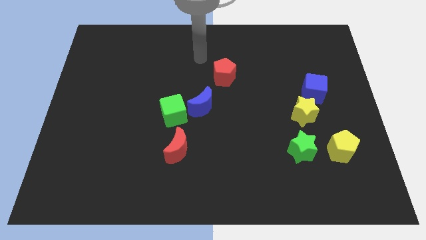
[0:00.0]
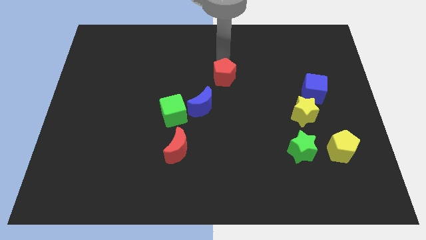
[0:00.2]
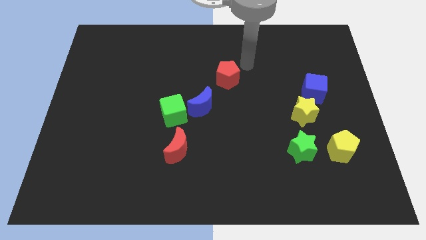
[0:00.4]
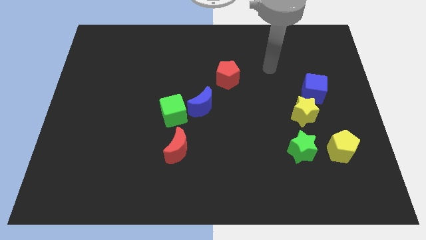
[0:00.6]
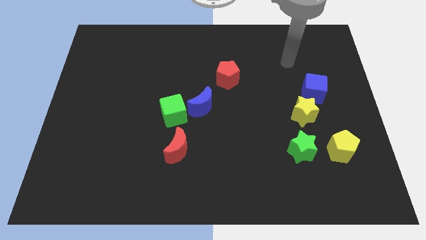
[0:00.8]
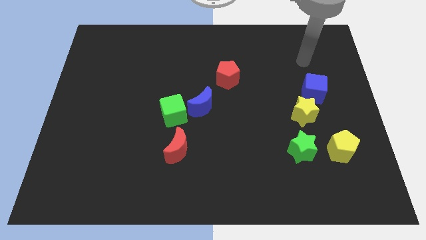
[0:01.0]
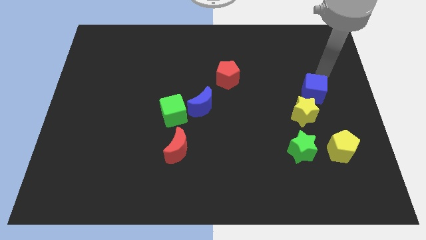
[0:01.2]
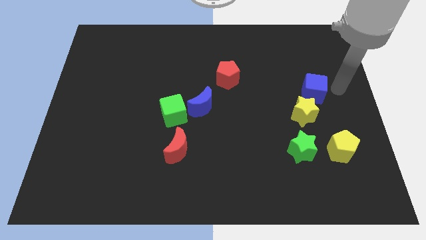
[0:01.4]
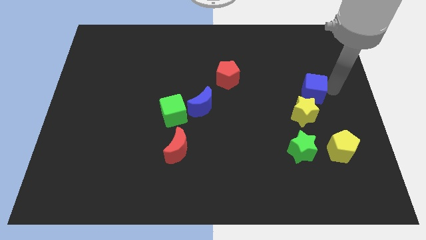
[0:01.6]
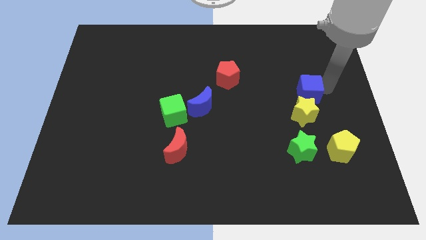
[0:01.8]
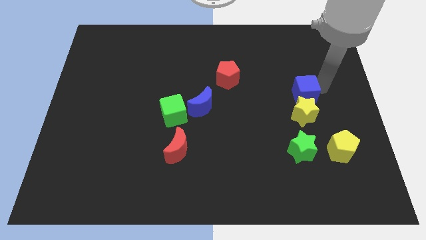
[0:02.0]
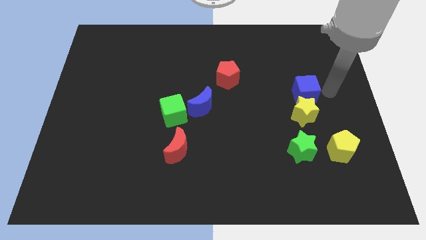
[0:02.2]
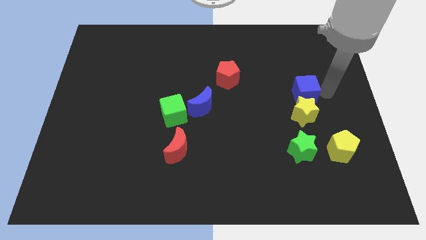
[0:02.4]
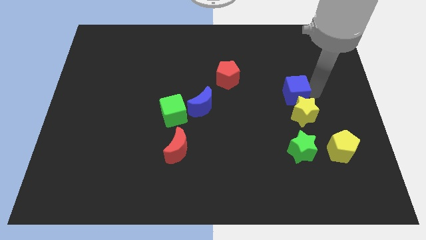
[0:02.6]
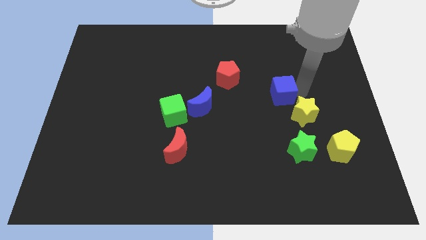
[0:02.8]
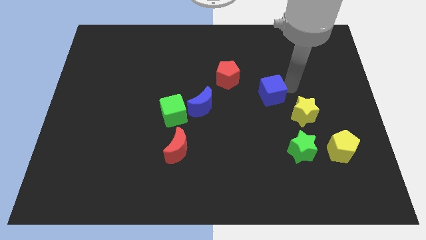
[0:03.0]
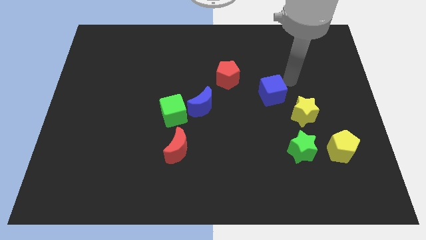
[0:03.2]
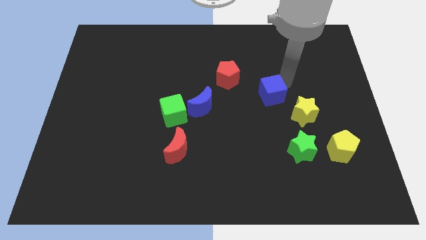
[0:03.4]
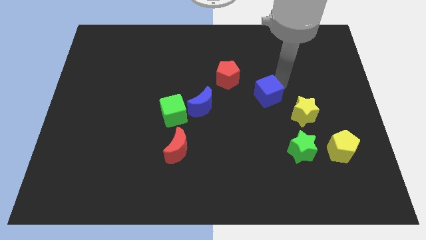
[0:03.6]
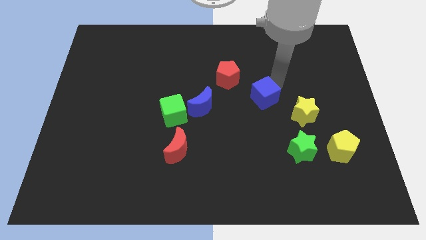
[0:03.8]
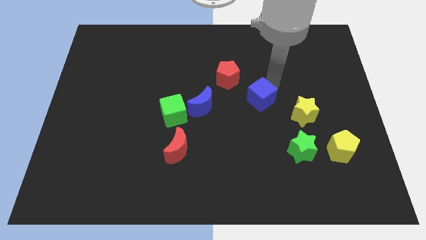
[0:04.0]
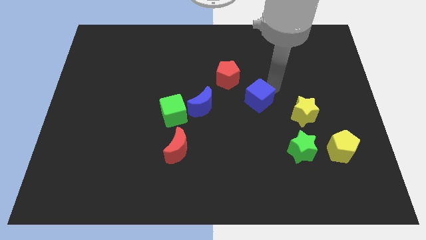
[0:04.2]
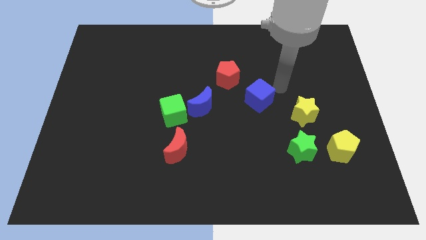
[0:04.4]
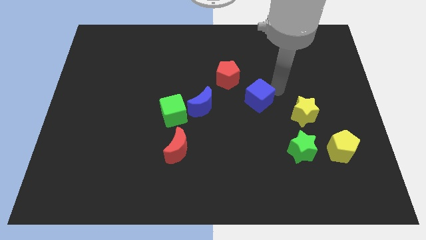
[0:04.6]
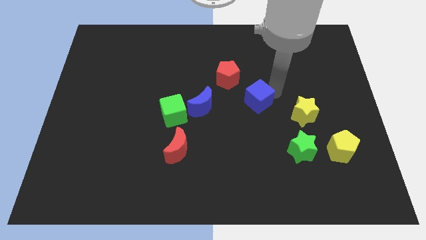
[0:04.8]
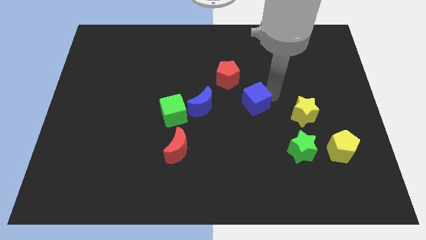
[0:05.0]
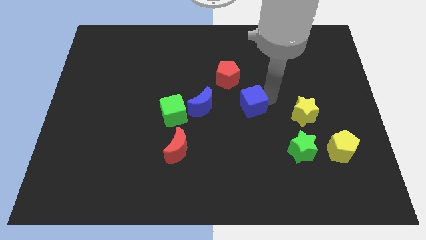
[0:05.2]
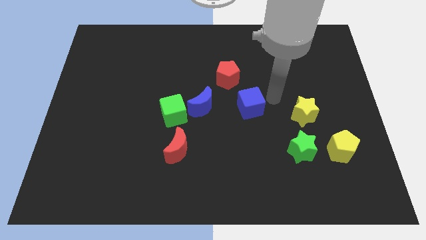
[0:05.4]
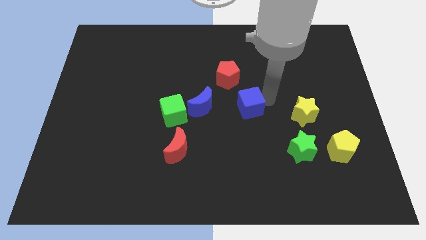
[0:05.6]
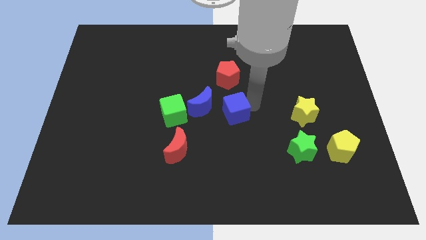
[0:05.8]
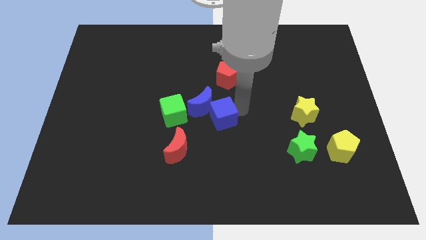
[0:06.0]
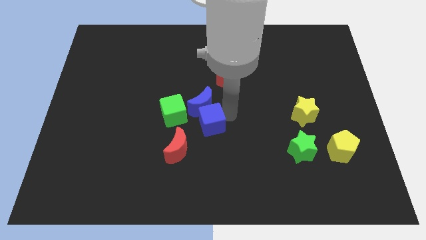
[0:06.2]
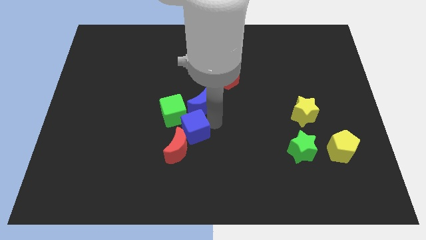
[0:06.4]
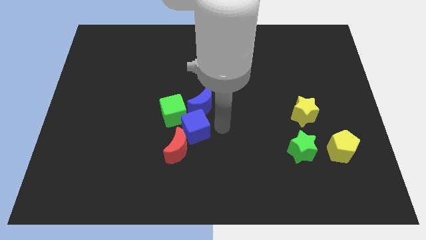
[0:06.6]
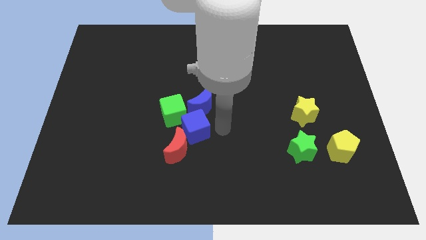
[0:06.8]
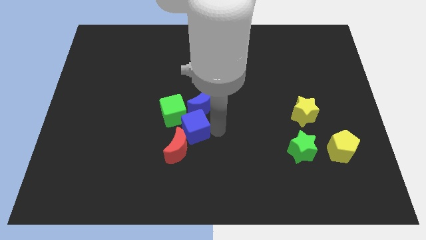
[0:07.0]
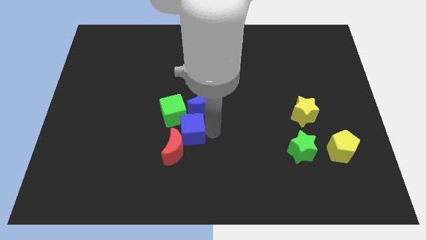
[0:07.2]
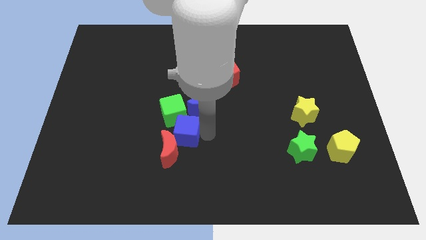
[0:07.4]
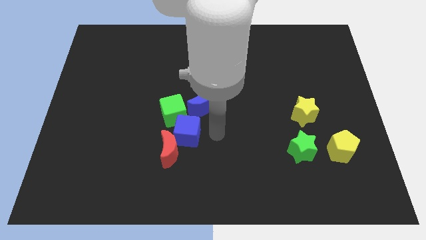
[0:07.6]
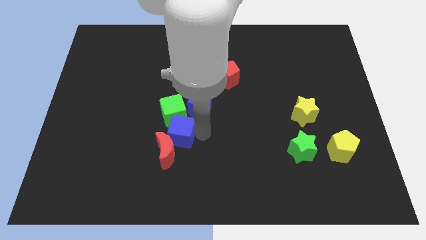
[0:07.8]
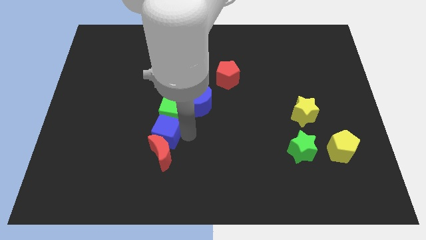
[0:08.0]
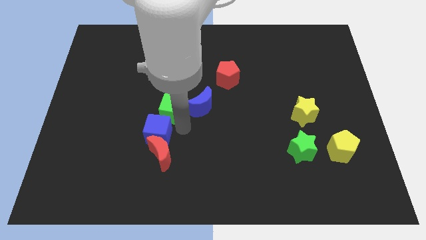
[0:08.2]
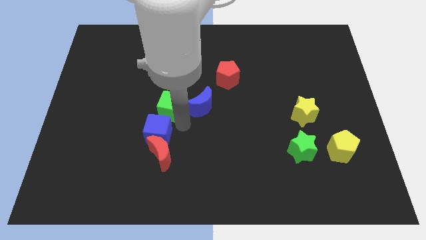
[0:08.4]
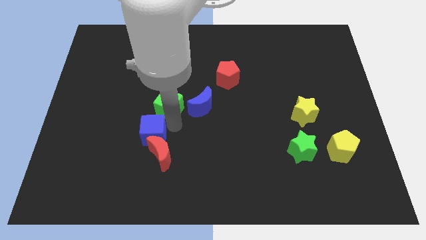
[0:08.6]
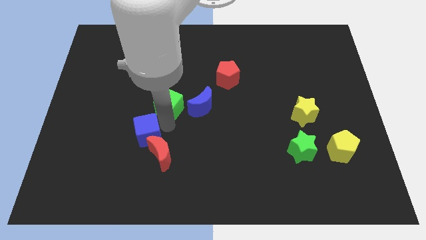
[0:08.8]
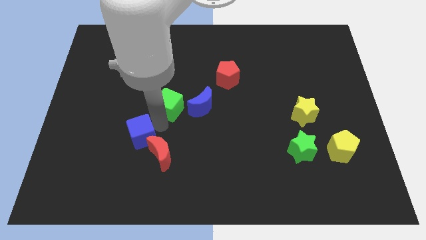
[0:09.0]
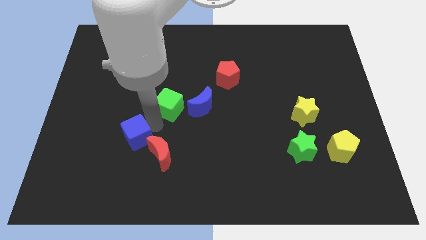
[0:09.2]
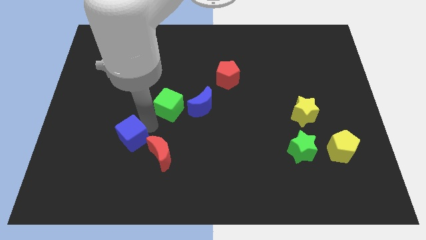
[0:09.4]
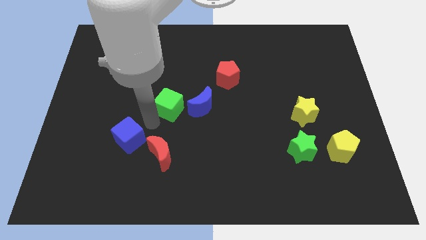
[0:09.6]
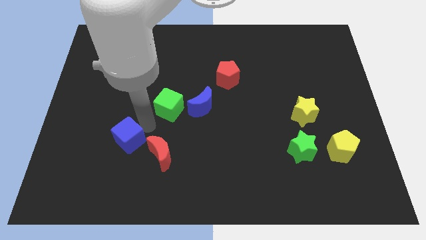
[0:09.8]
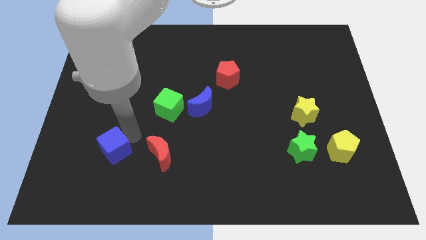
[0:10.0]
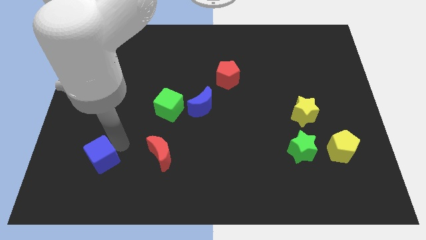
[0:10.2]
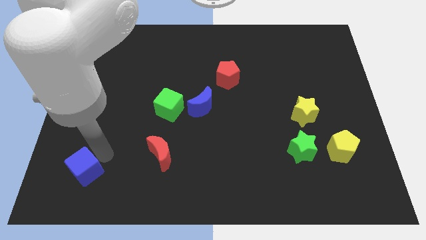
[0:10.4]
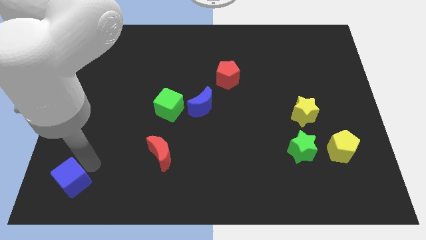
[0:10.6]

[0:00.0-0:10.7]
slide the blue cube to the bottom left of the board
